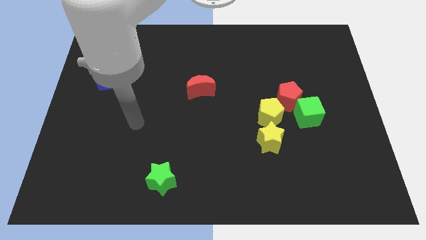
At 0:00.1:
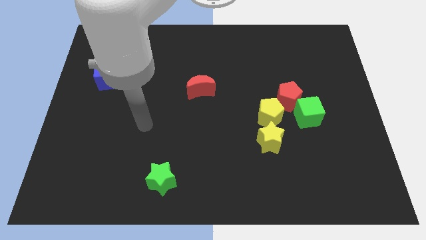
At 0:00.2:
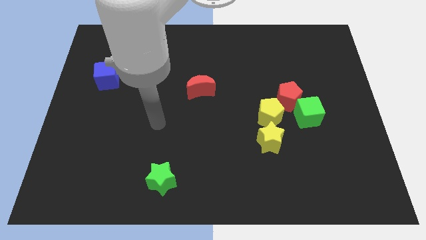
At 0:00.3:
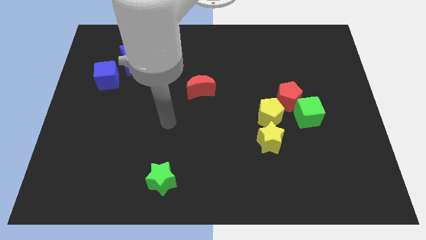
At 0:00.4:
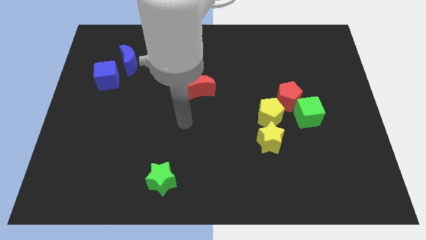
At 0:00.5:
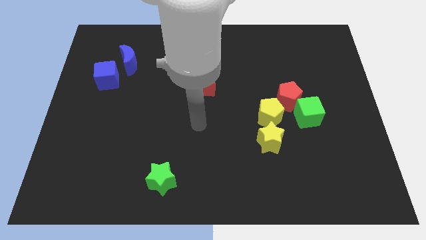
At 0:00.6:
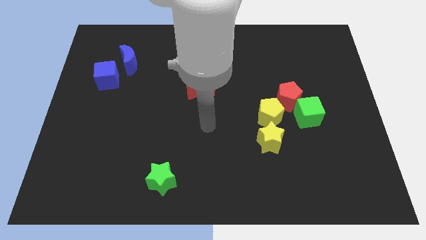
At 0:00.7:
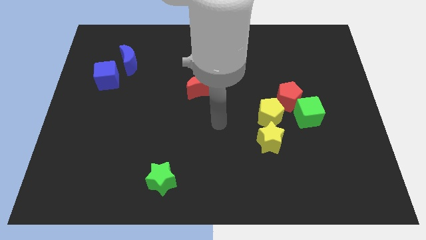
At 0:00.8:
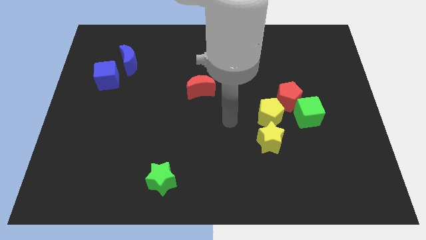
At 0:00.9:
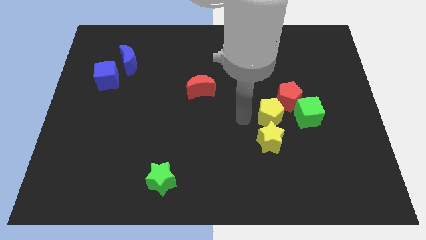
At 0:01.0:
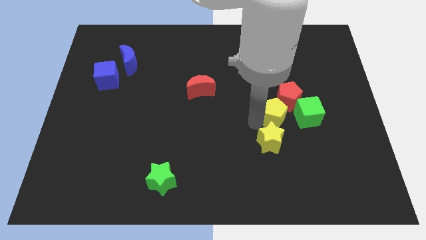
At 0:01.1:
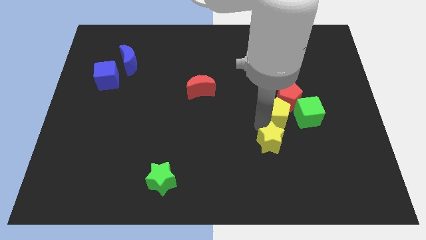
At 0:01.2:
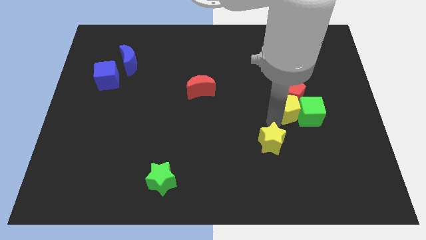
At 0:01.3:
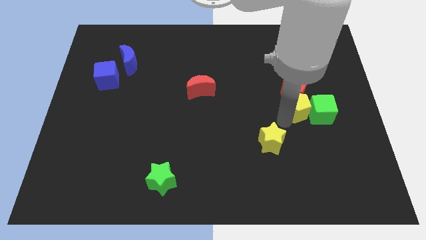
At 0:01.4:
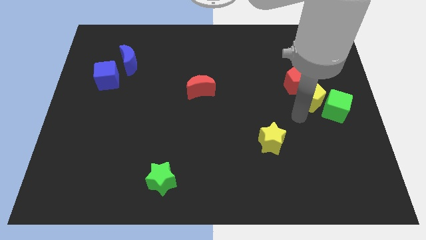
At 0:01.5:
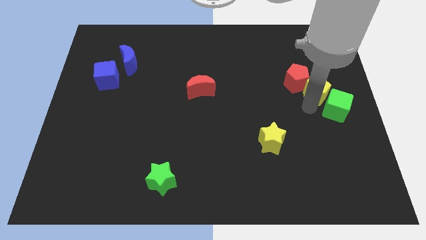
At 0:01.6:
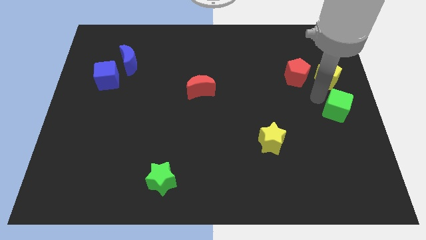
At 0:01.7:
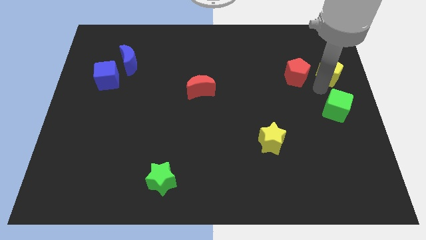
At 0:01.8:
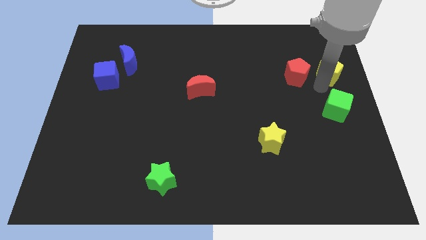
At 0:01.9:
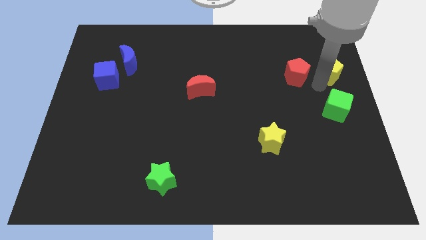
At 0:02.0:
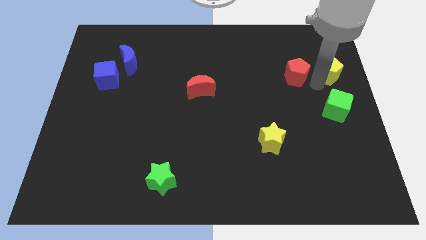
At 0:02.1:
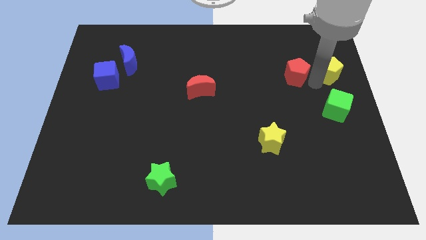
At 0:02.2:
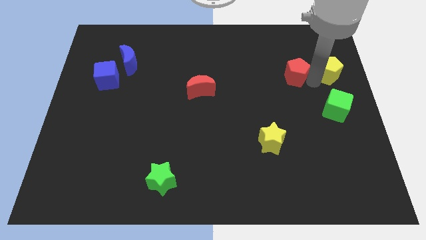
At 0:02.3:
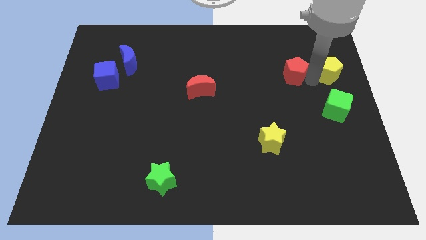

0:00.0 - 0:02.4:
separate the red pentagon from the green cube and yellow pentagon

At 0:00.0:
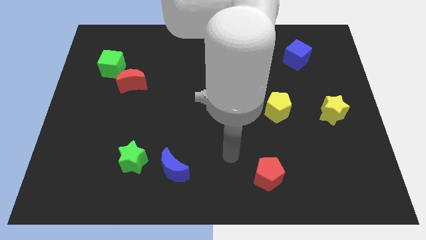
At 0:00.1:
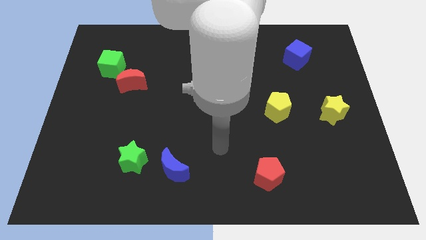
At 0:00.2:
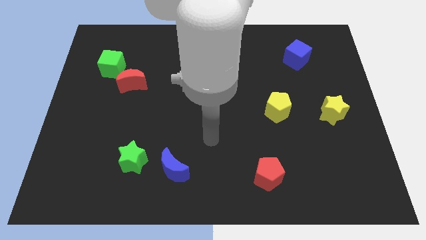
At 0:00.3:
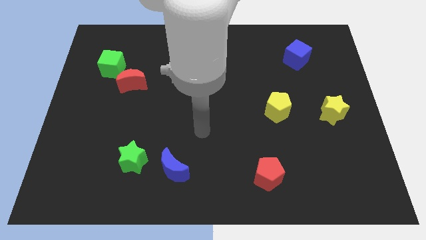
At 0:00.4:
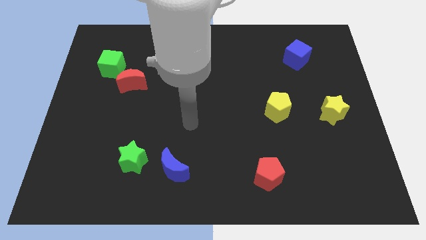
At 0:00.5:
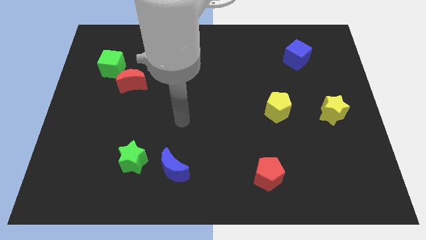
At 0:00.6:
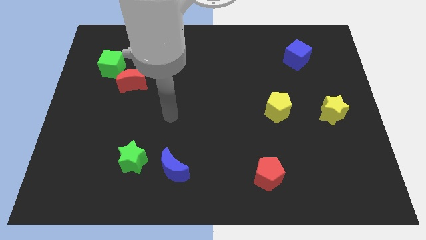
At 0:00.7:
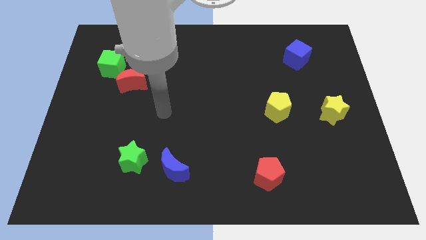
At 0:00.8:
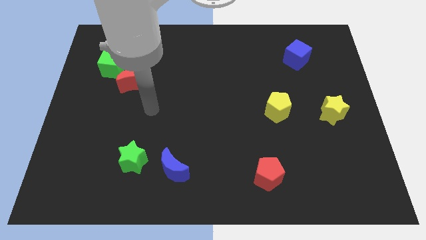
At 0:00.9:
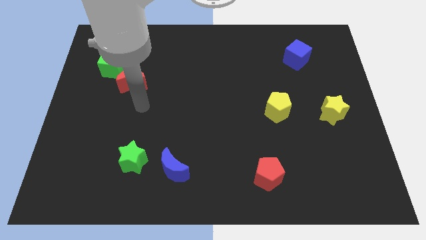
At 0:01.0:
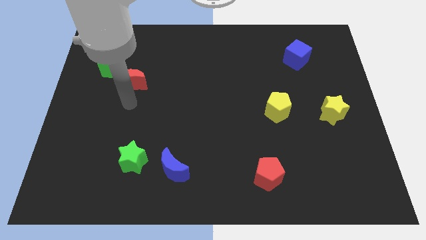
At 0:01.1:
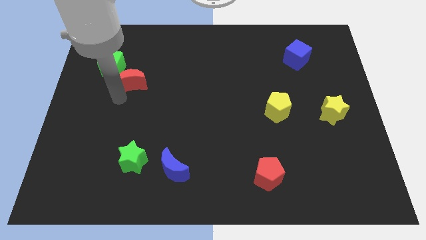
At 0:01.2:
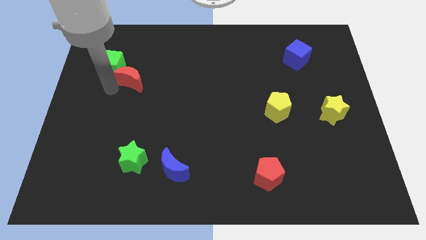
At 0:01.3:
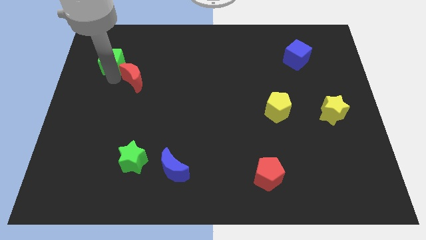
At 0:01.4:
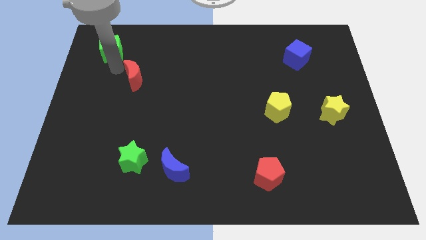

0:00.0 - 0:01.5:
pull the red moon apart from the green cube

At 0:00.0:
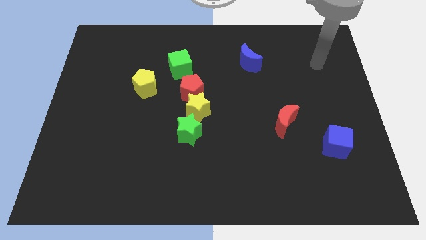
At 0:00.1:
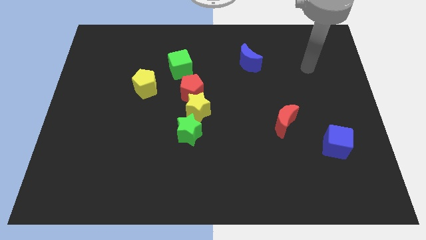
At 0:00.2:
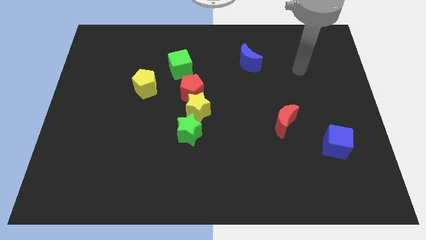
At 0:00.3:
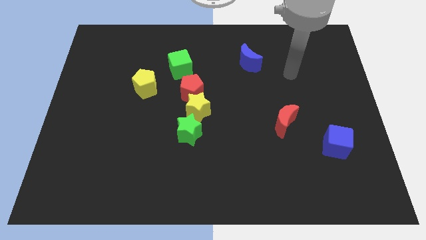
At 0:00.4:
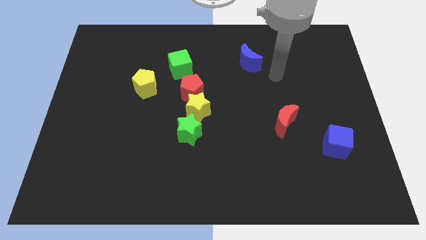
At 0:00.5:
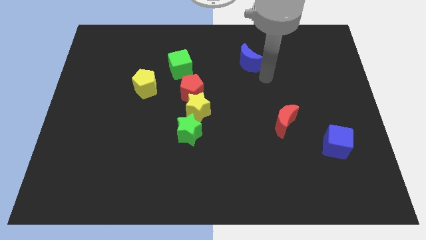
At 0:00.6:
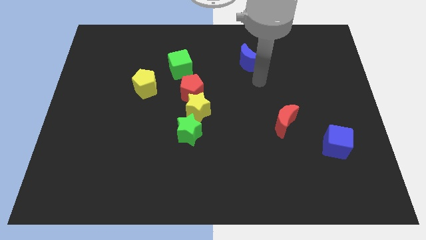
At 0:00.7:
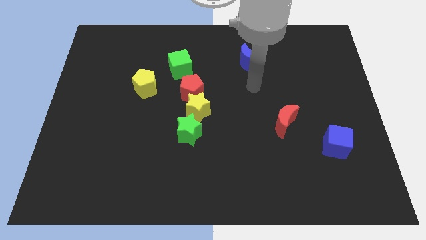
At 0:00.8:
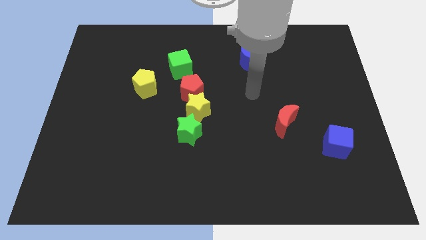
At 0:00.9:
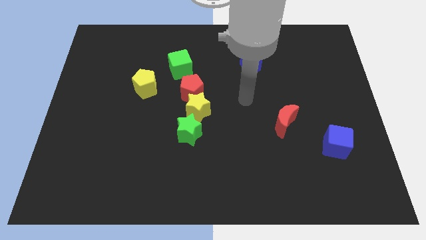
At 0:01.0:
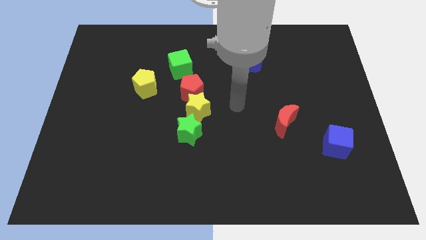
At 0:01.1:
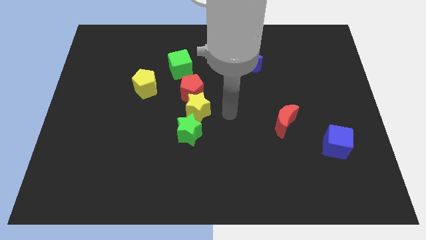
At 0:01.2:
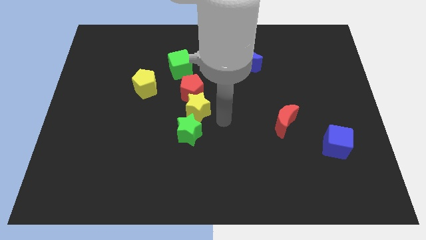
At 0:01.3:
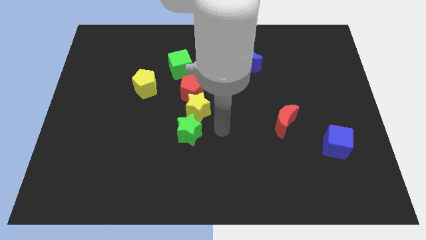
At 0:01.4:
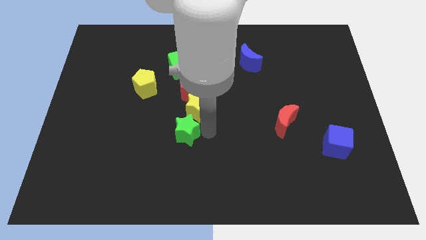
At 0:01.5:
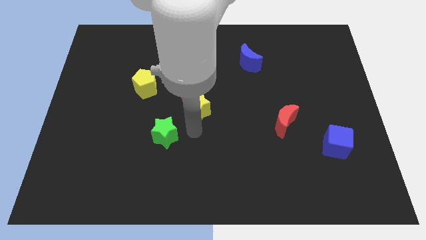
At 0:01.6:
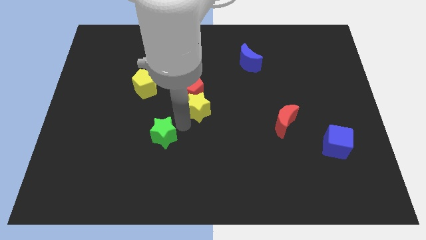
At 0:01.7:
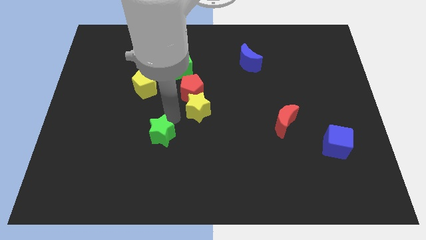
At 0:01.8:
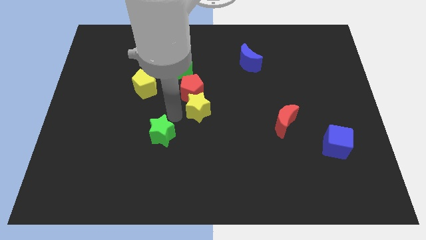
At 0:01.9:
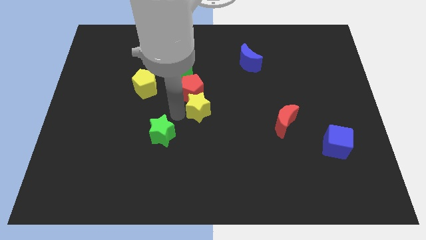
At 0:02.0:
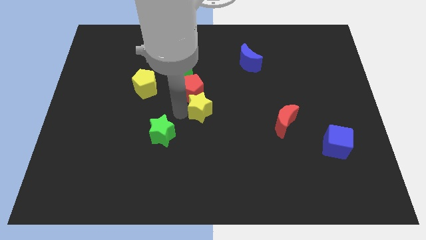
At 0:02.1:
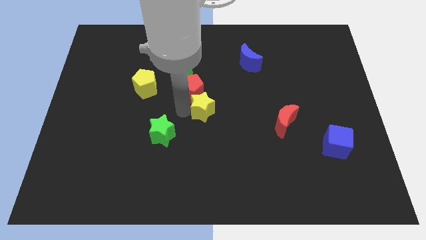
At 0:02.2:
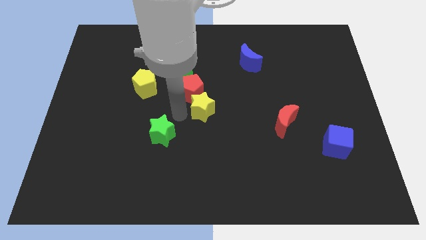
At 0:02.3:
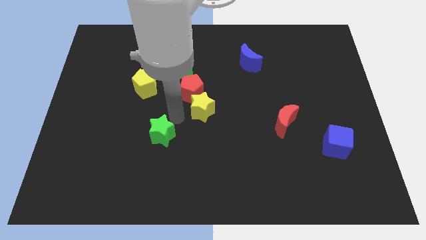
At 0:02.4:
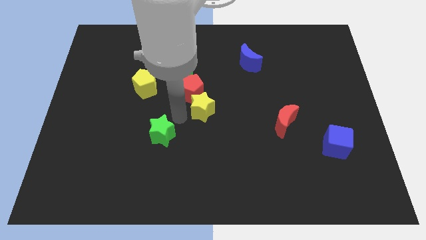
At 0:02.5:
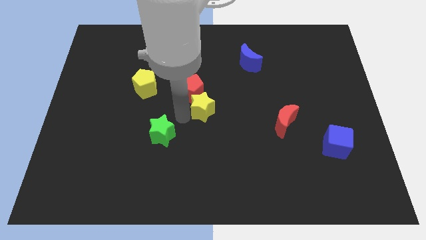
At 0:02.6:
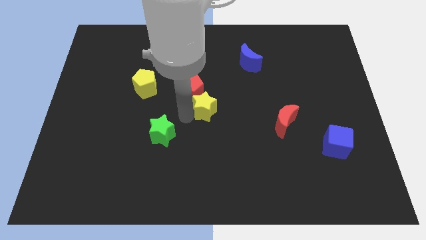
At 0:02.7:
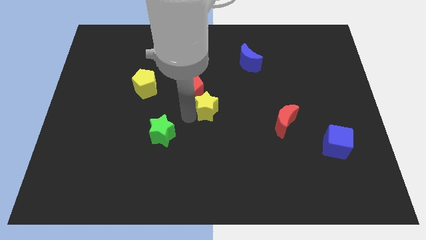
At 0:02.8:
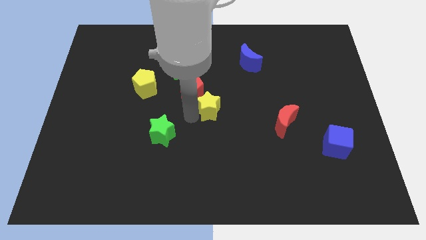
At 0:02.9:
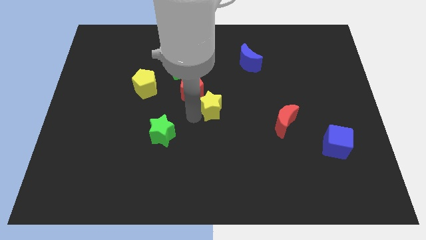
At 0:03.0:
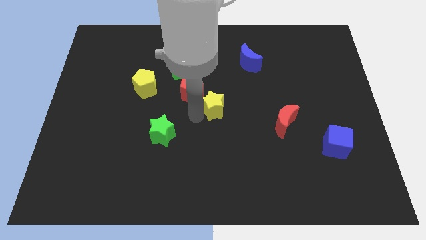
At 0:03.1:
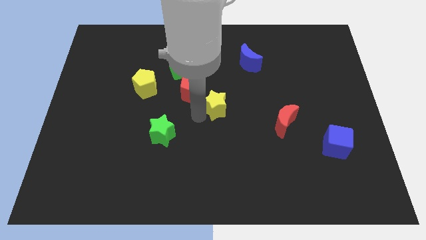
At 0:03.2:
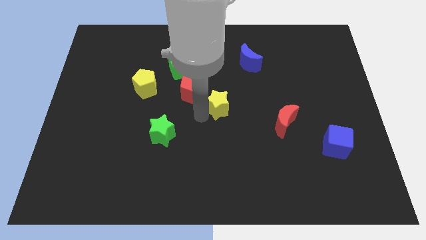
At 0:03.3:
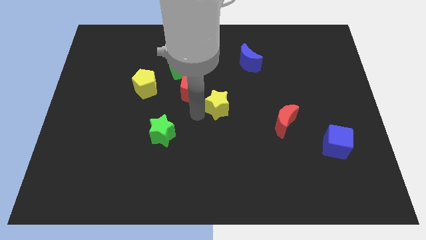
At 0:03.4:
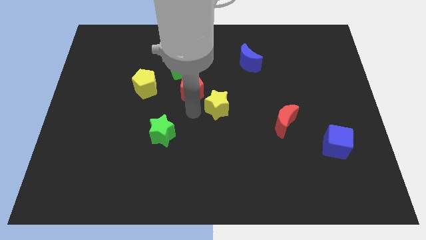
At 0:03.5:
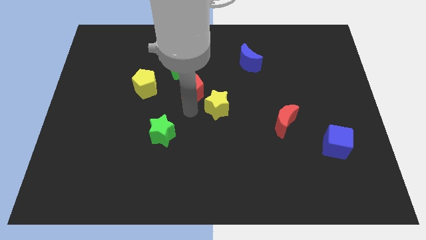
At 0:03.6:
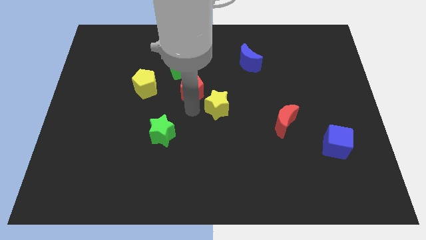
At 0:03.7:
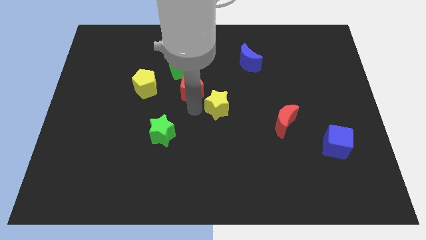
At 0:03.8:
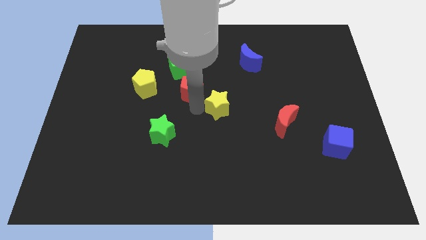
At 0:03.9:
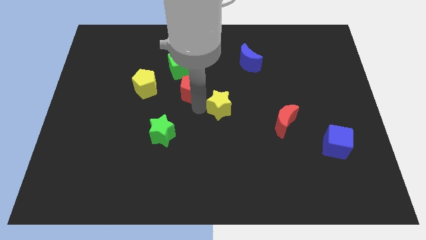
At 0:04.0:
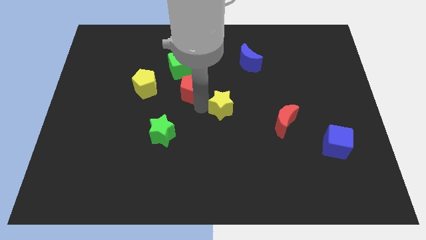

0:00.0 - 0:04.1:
separate the yellow star from the red pentagon and green star

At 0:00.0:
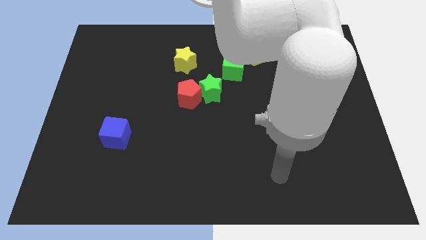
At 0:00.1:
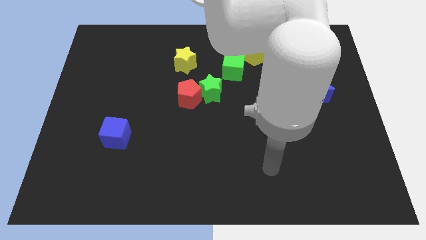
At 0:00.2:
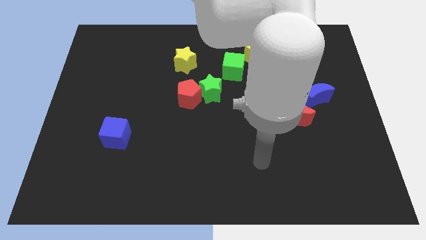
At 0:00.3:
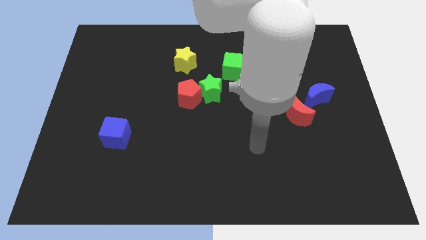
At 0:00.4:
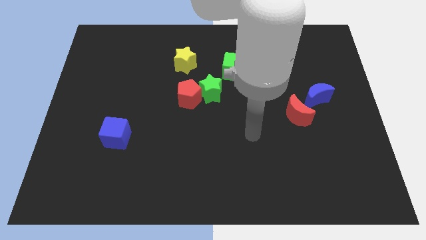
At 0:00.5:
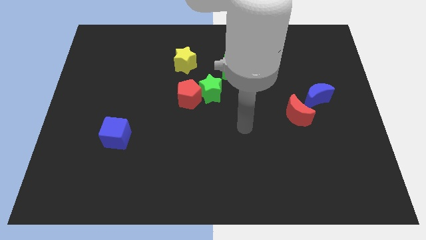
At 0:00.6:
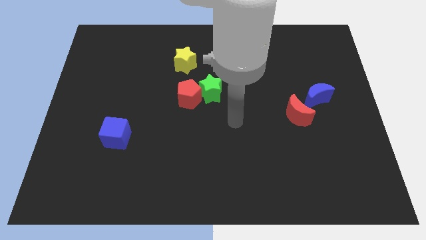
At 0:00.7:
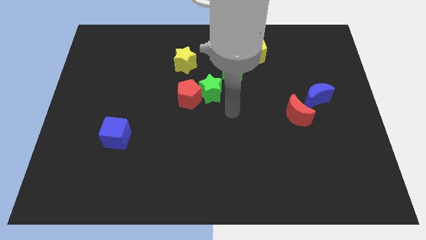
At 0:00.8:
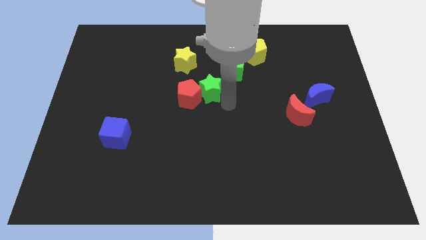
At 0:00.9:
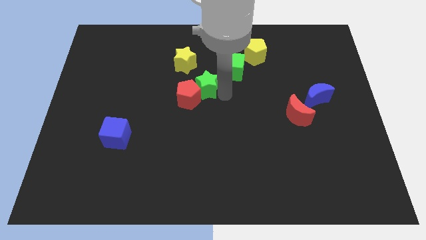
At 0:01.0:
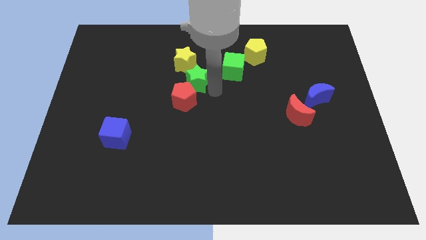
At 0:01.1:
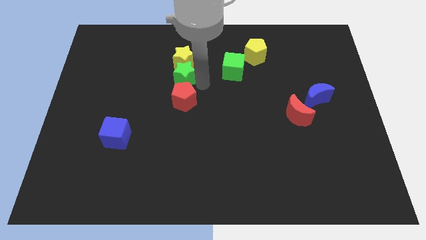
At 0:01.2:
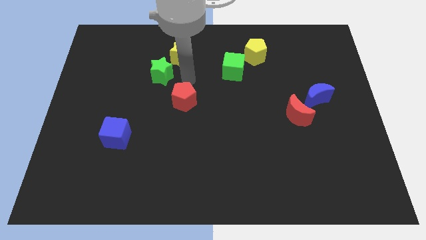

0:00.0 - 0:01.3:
pull the red pentagon apart from the green star
